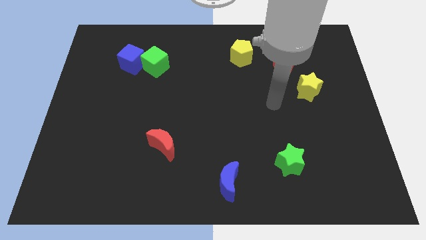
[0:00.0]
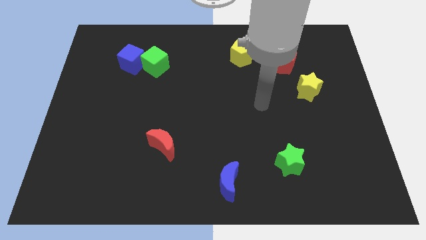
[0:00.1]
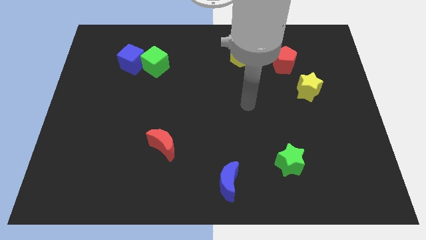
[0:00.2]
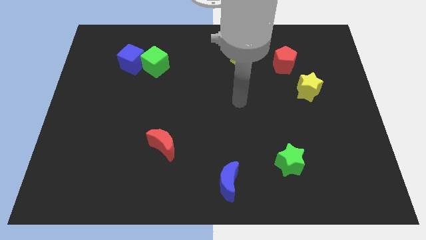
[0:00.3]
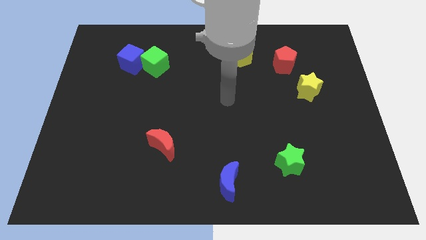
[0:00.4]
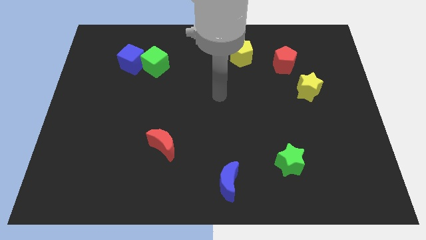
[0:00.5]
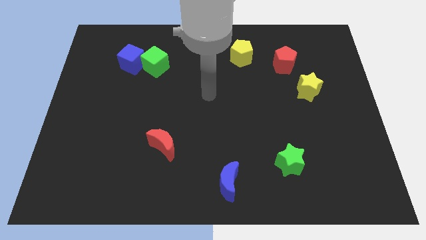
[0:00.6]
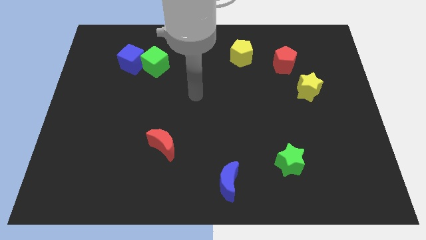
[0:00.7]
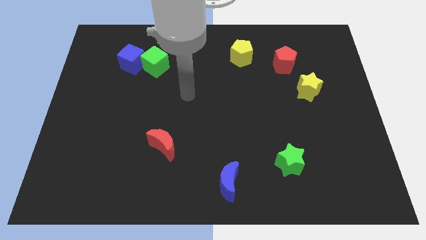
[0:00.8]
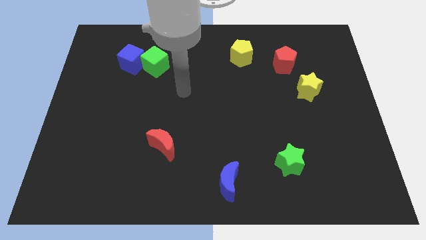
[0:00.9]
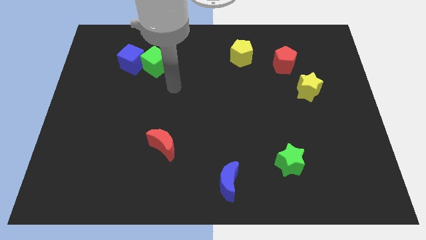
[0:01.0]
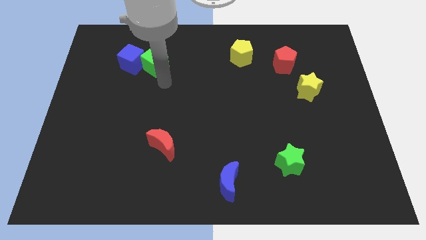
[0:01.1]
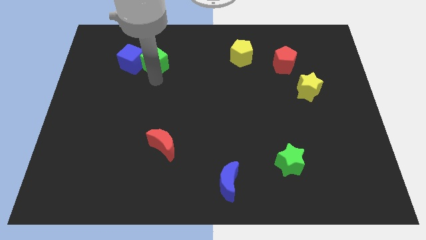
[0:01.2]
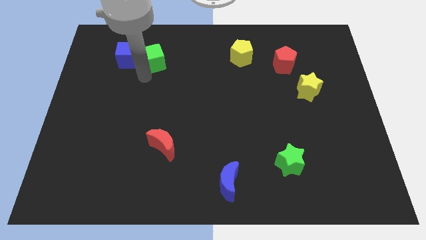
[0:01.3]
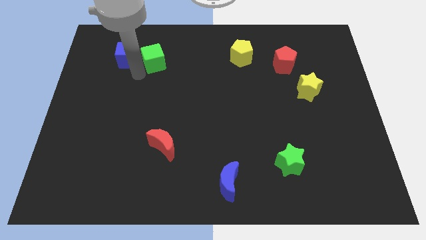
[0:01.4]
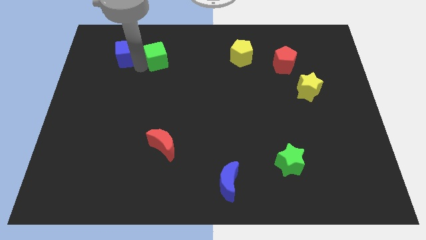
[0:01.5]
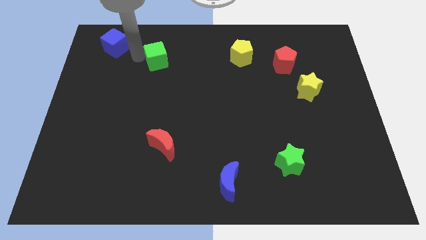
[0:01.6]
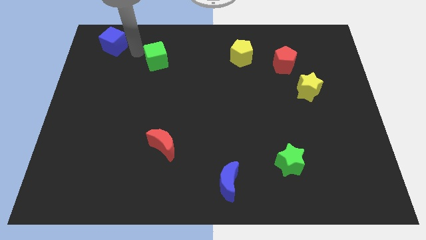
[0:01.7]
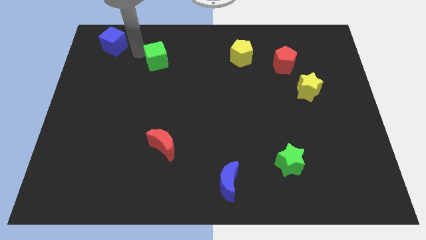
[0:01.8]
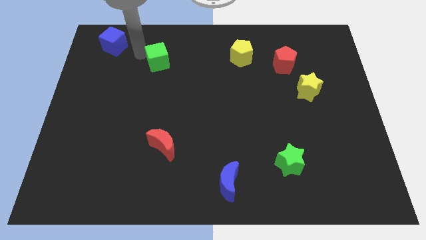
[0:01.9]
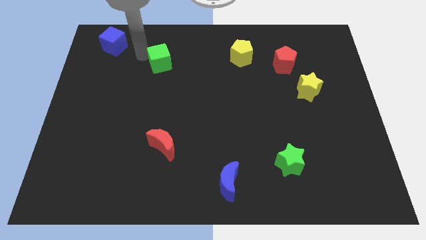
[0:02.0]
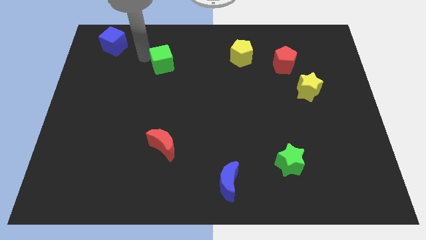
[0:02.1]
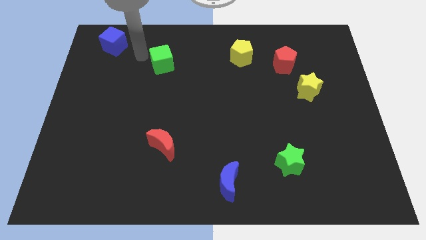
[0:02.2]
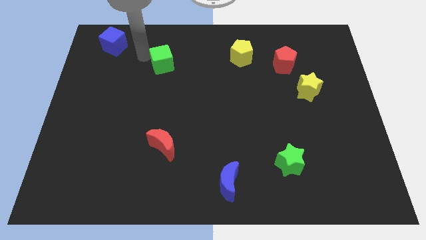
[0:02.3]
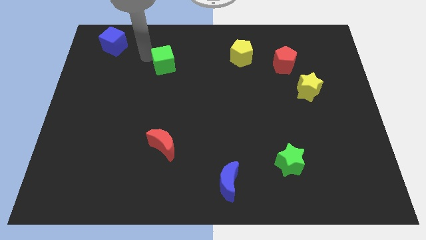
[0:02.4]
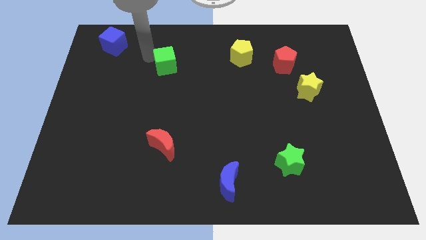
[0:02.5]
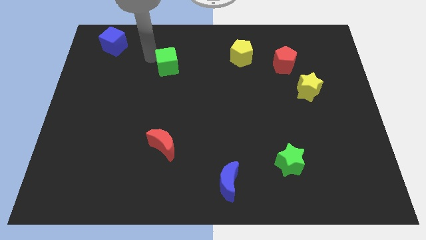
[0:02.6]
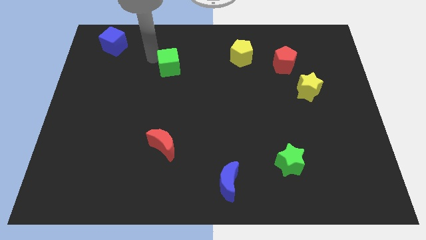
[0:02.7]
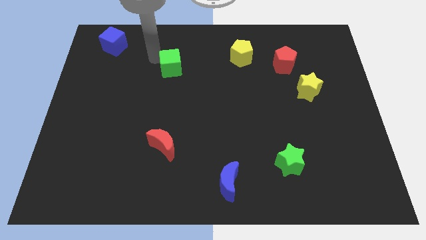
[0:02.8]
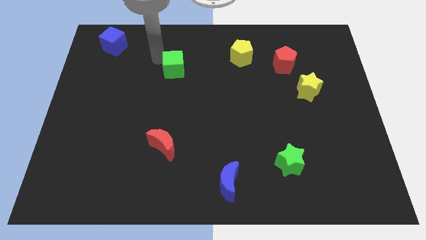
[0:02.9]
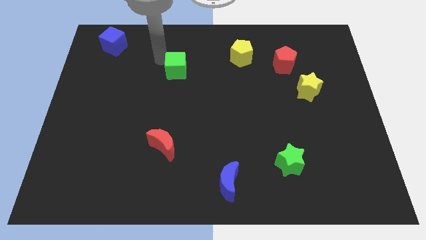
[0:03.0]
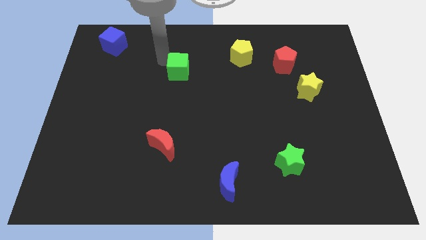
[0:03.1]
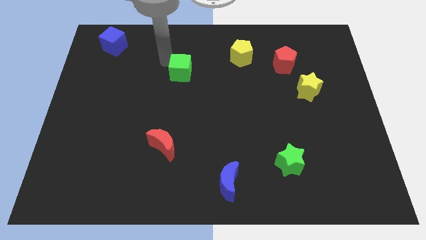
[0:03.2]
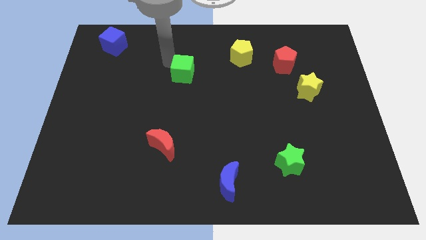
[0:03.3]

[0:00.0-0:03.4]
push the green cube a little bit to the right

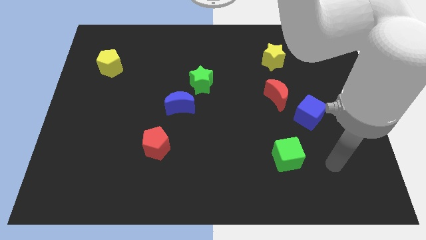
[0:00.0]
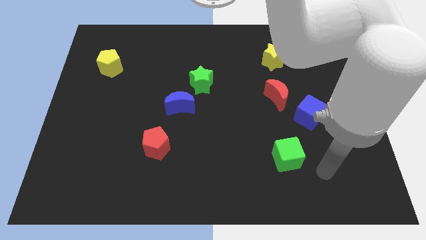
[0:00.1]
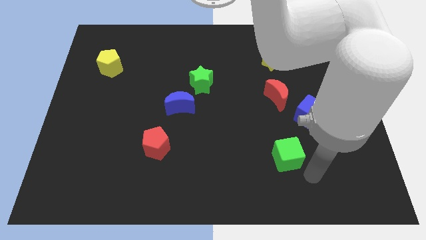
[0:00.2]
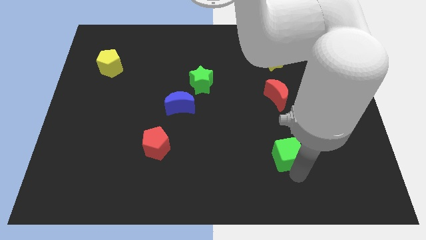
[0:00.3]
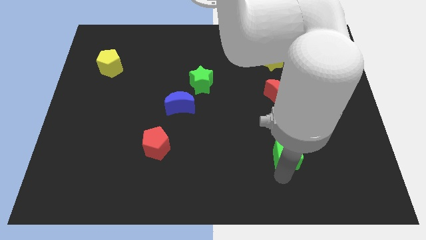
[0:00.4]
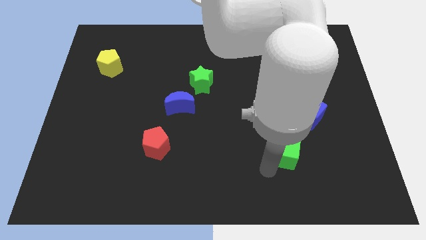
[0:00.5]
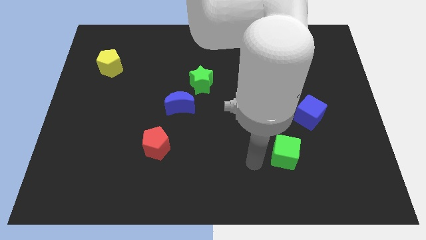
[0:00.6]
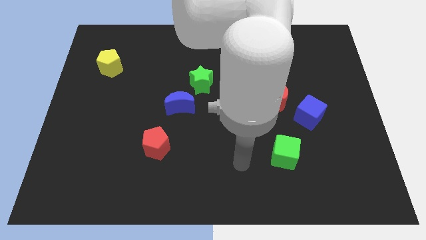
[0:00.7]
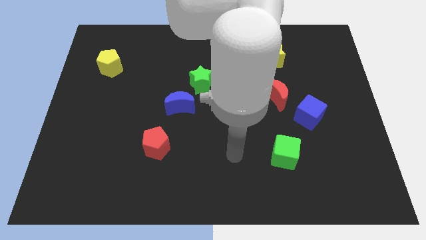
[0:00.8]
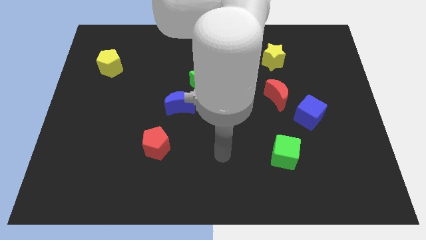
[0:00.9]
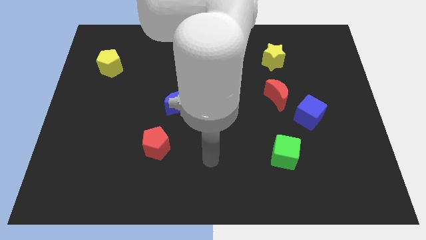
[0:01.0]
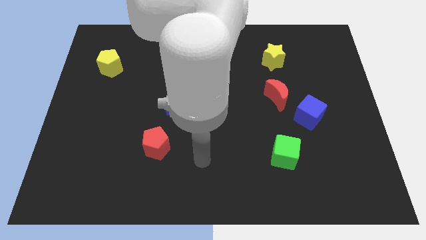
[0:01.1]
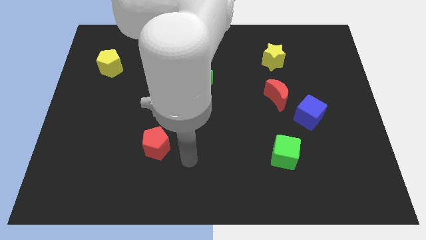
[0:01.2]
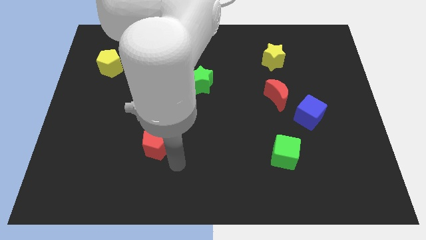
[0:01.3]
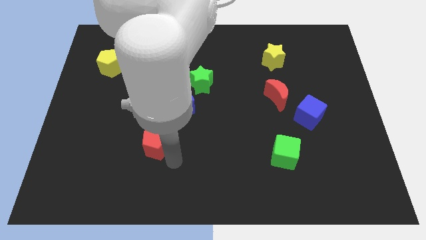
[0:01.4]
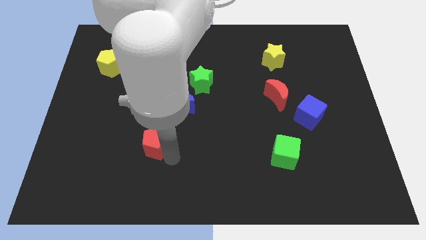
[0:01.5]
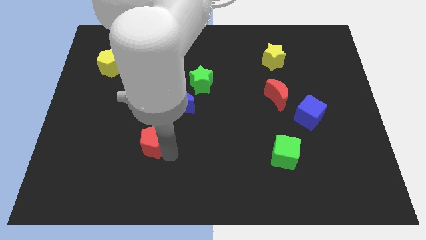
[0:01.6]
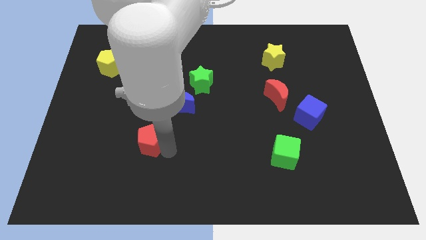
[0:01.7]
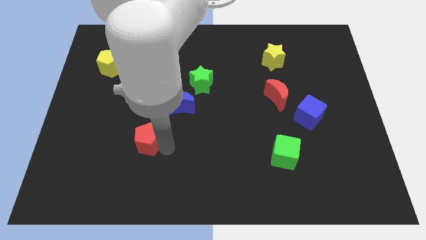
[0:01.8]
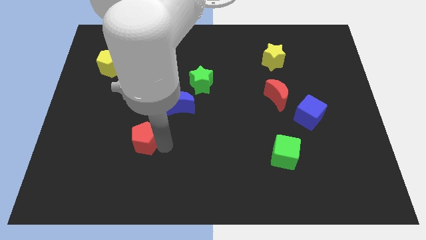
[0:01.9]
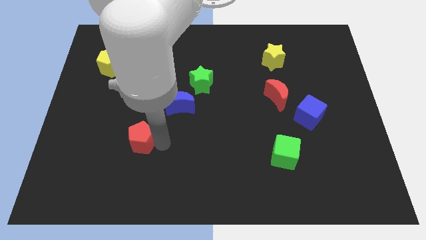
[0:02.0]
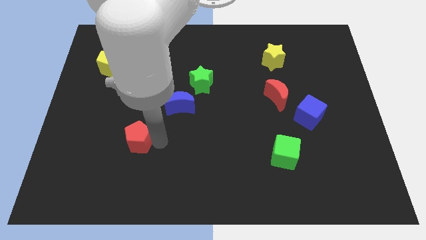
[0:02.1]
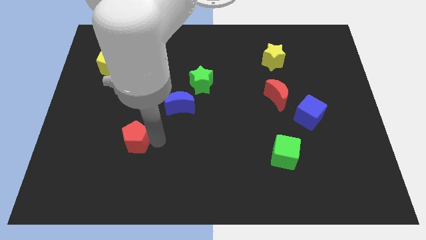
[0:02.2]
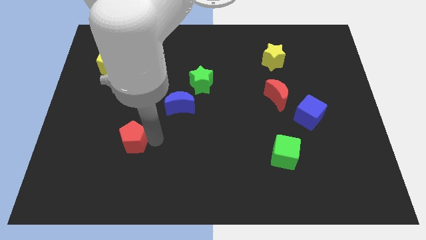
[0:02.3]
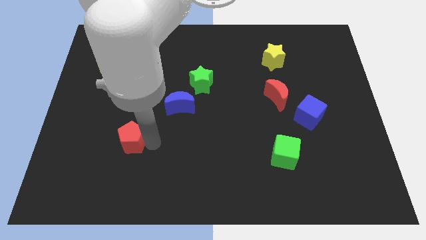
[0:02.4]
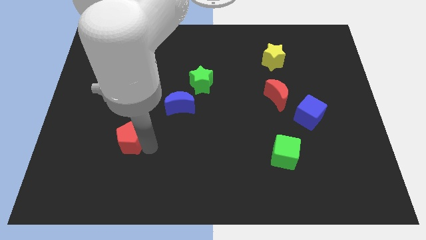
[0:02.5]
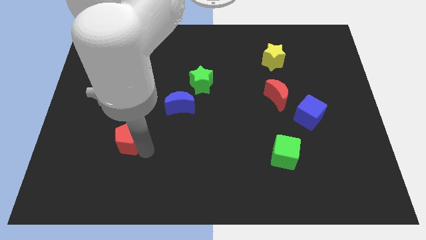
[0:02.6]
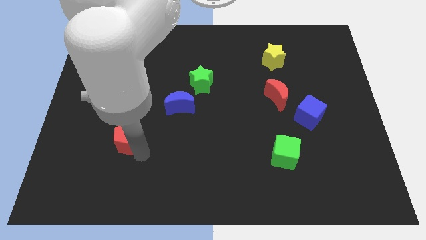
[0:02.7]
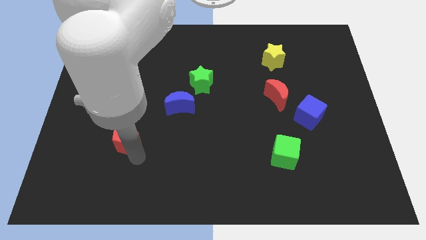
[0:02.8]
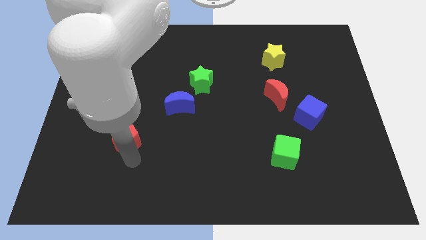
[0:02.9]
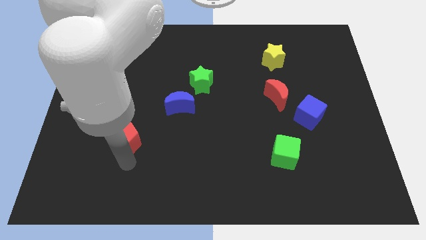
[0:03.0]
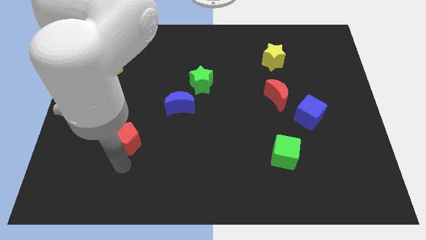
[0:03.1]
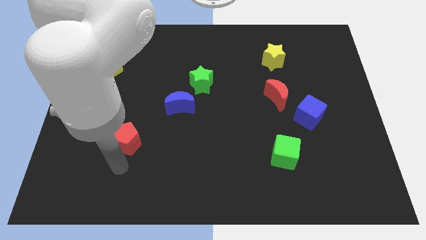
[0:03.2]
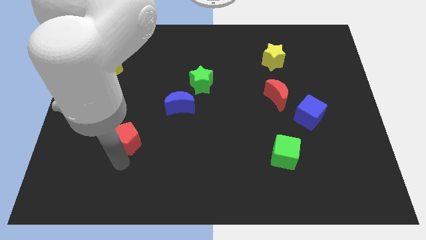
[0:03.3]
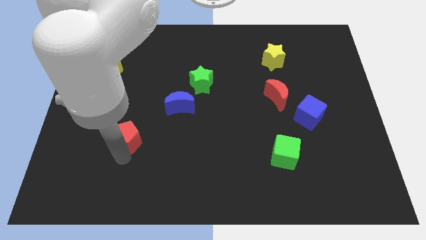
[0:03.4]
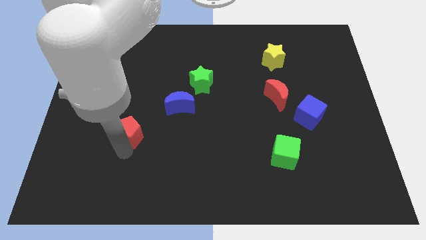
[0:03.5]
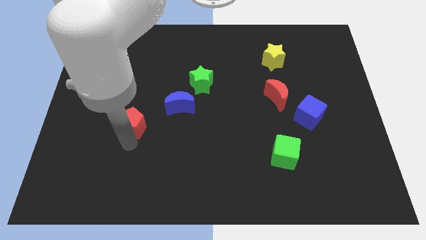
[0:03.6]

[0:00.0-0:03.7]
slide the red pentagon diagonally upwards and left a bit

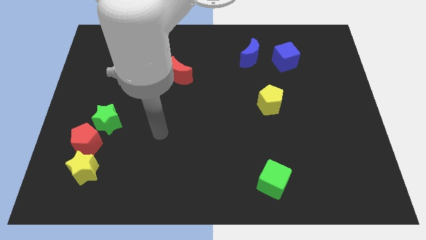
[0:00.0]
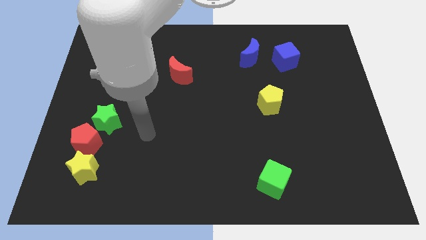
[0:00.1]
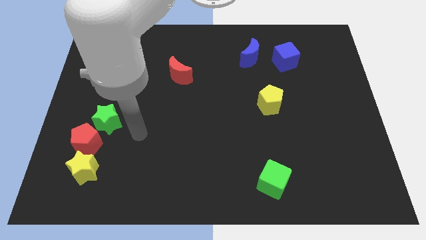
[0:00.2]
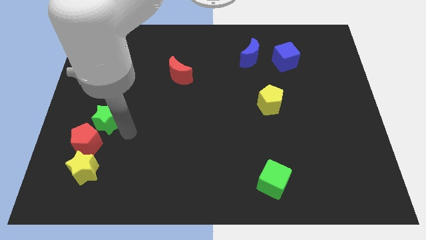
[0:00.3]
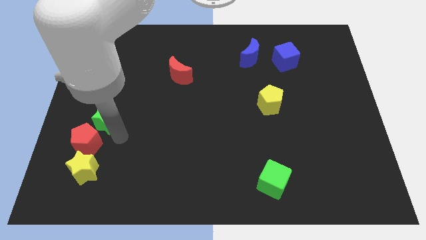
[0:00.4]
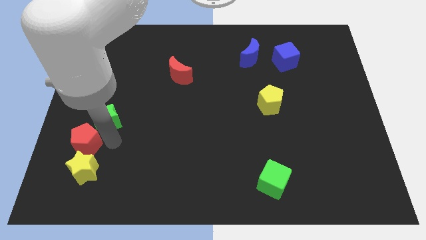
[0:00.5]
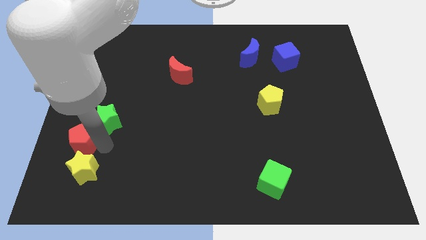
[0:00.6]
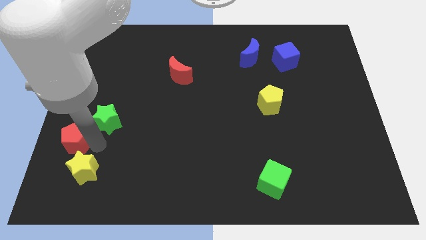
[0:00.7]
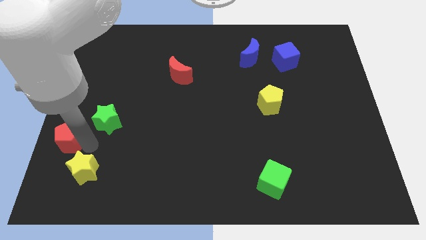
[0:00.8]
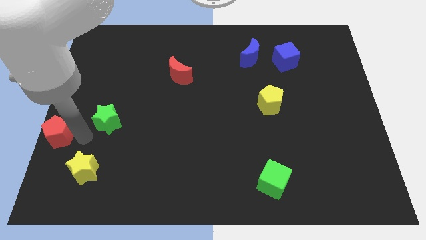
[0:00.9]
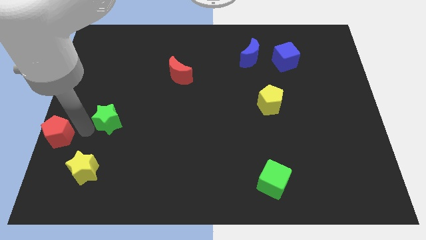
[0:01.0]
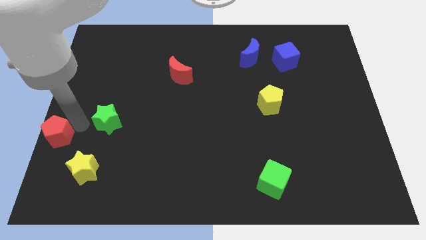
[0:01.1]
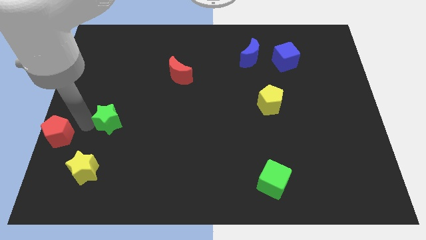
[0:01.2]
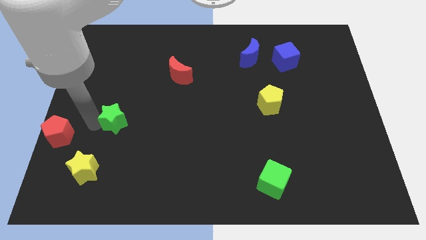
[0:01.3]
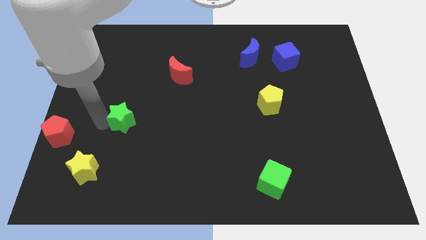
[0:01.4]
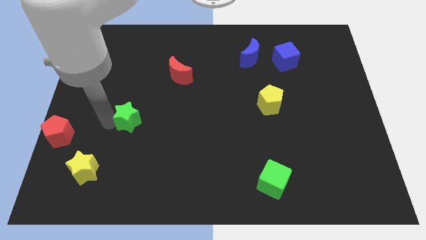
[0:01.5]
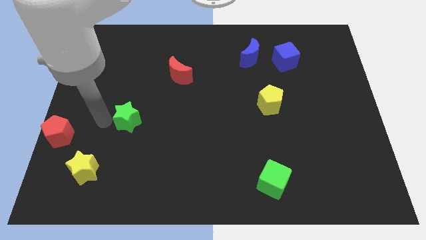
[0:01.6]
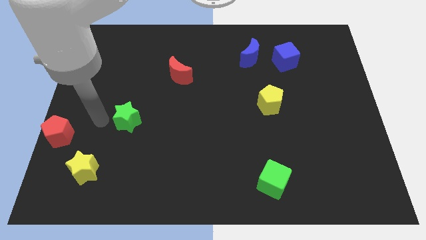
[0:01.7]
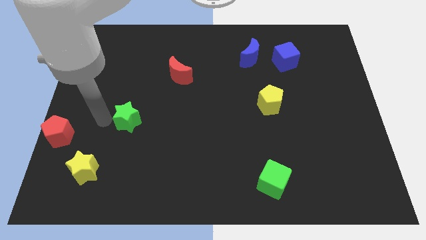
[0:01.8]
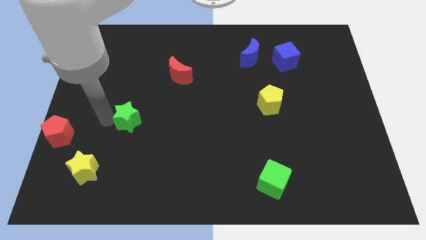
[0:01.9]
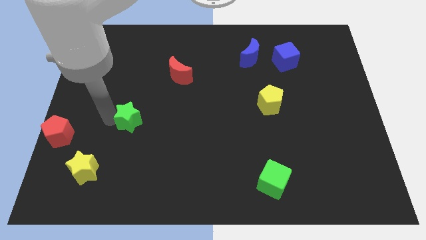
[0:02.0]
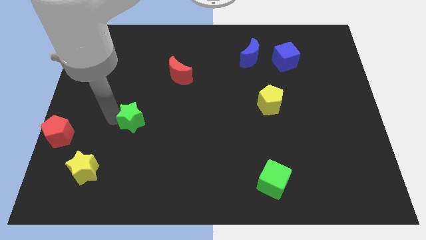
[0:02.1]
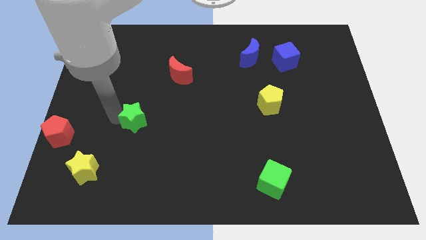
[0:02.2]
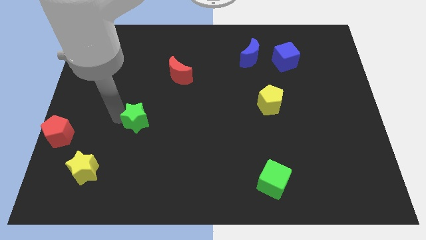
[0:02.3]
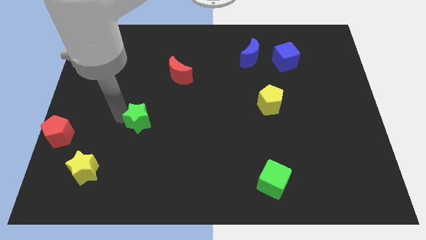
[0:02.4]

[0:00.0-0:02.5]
slightly push the green star right
